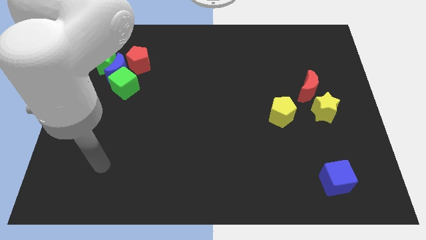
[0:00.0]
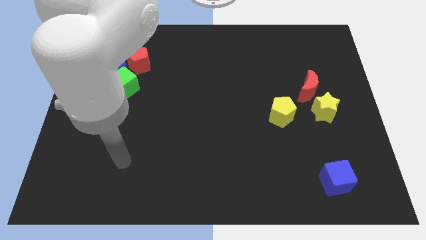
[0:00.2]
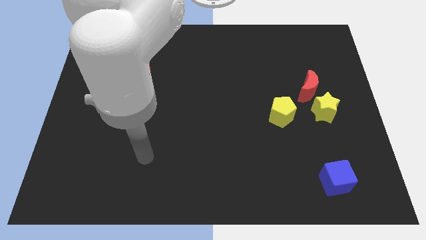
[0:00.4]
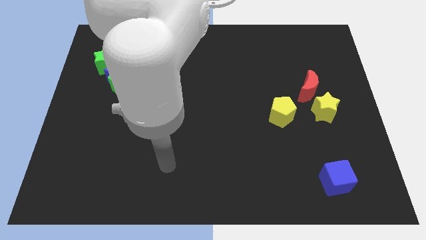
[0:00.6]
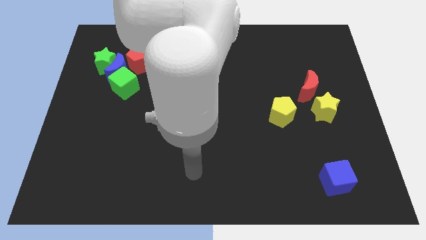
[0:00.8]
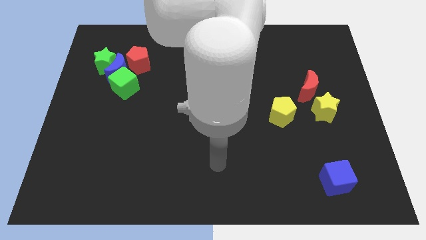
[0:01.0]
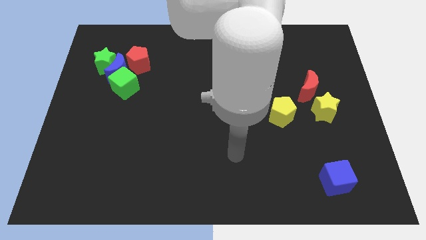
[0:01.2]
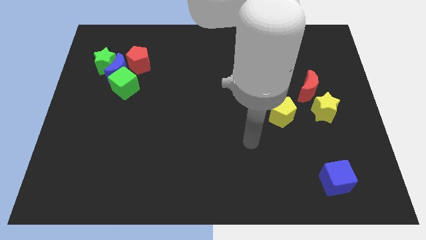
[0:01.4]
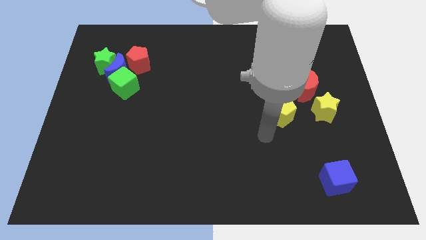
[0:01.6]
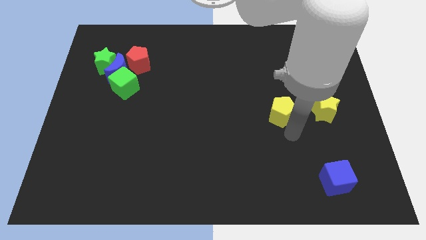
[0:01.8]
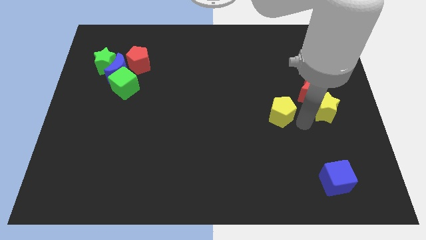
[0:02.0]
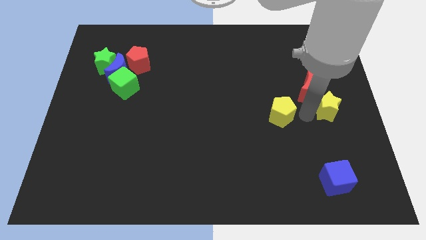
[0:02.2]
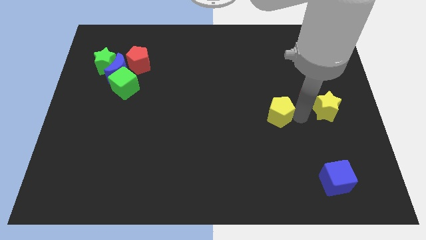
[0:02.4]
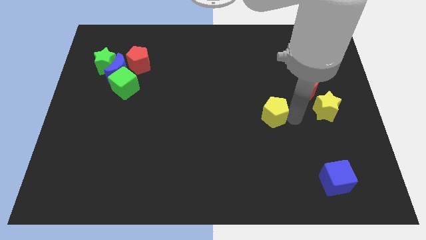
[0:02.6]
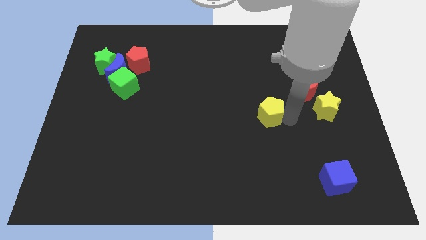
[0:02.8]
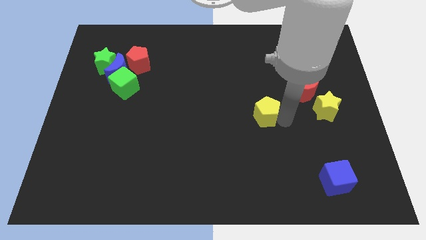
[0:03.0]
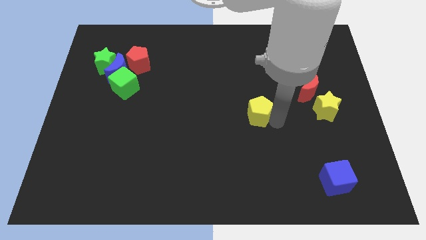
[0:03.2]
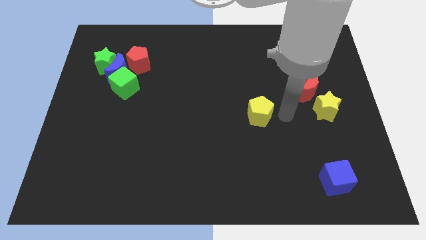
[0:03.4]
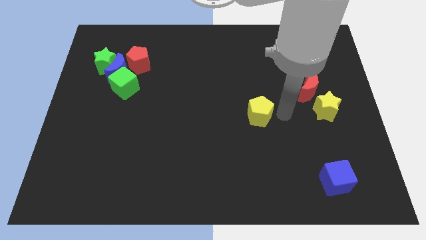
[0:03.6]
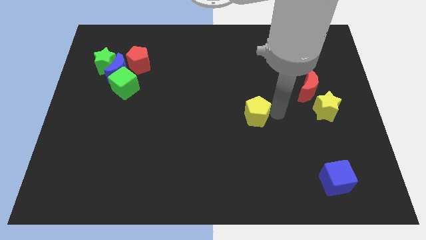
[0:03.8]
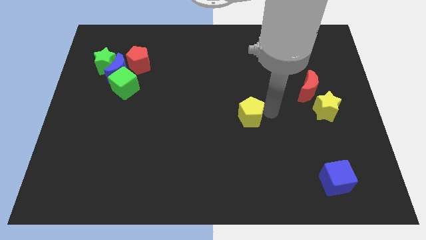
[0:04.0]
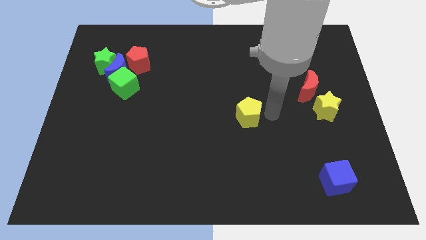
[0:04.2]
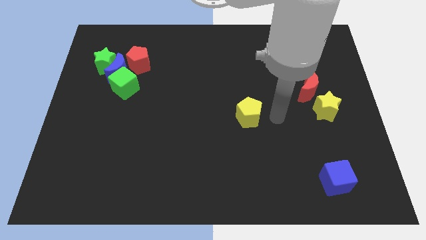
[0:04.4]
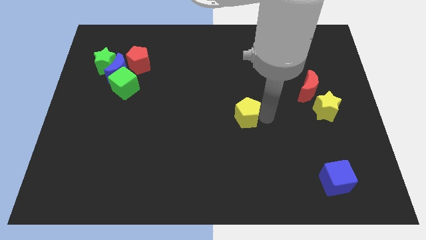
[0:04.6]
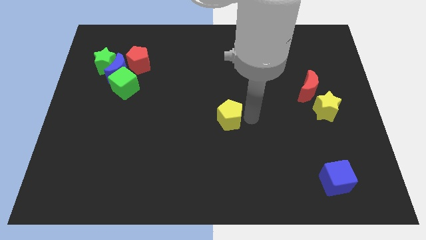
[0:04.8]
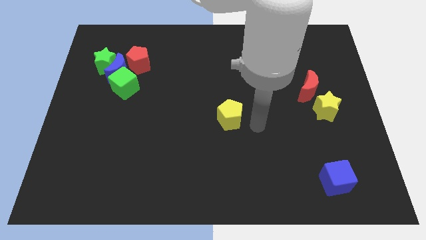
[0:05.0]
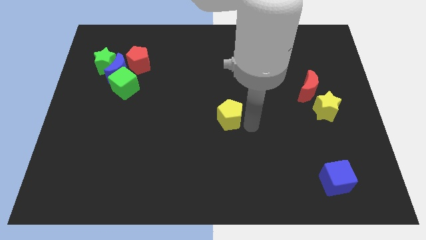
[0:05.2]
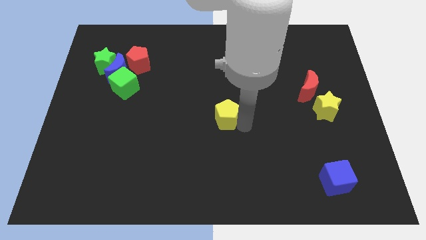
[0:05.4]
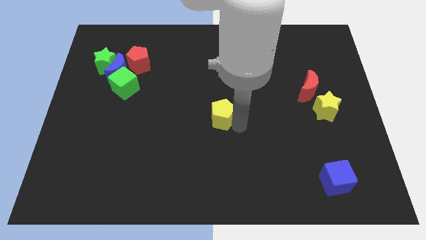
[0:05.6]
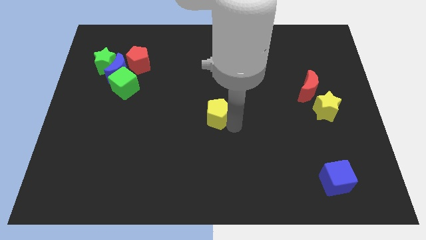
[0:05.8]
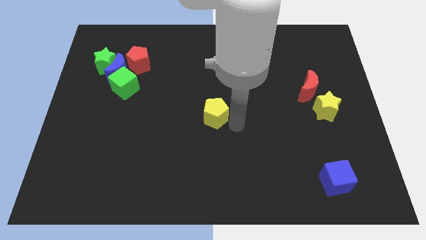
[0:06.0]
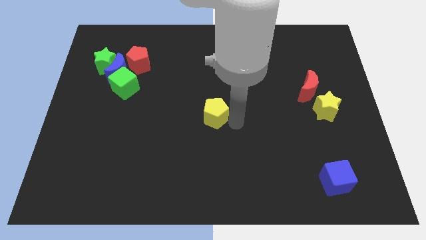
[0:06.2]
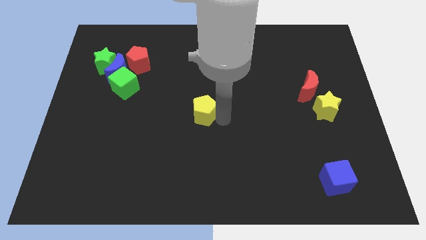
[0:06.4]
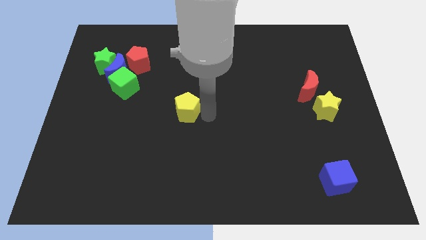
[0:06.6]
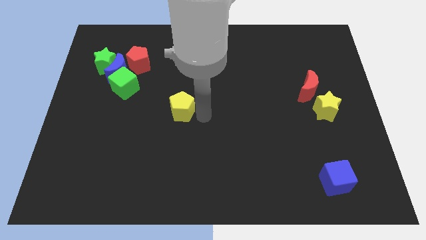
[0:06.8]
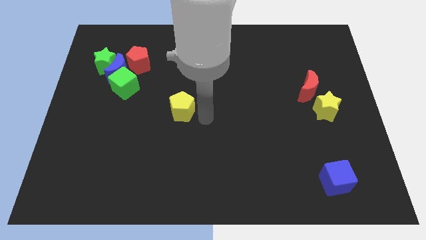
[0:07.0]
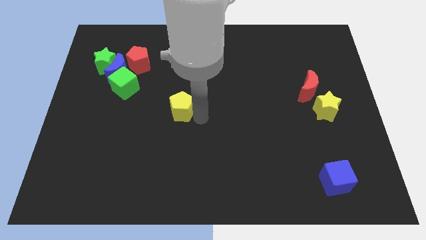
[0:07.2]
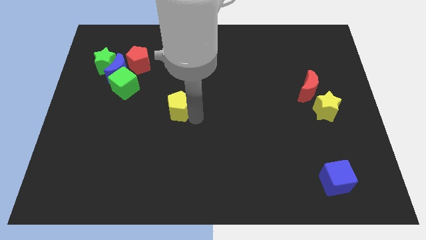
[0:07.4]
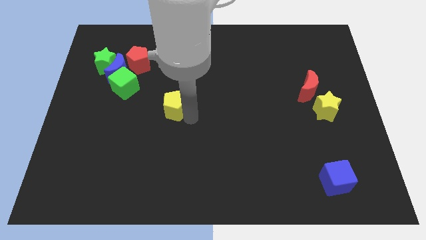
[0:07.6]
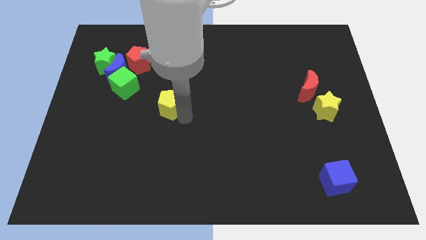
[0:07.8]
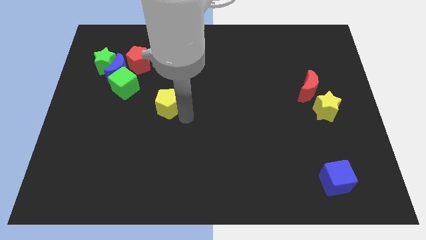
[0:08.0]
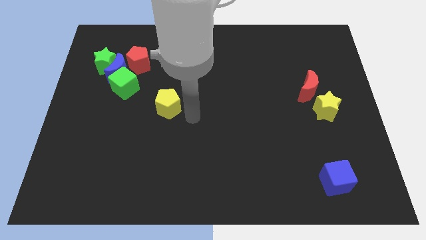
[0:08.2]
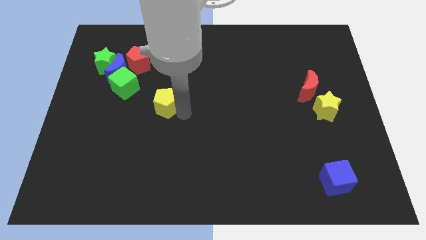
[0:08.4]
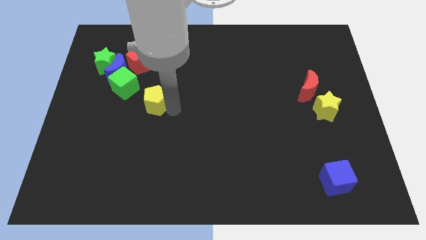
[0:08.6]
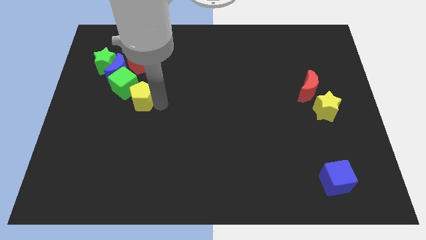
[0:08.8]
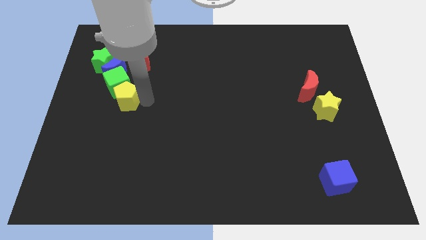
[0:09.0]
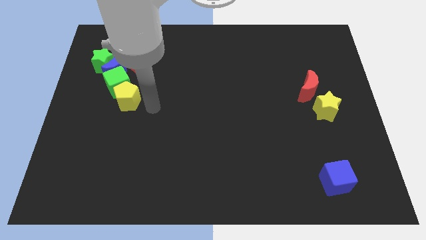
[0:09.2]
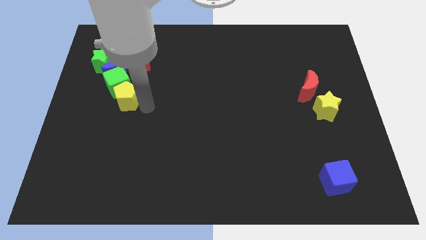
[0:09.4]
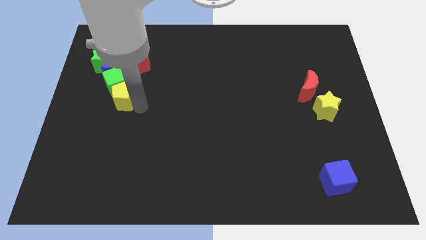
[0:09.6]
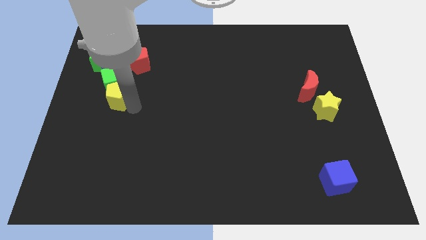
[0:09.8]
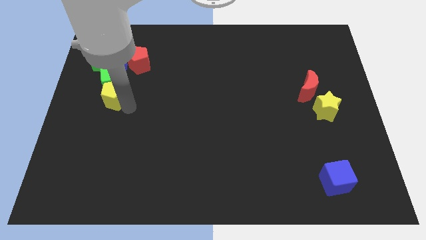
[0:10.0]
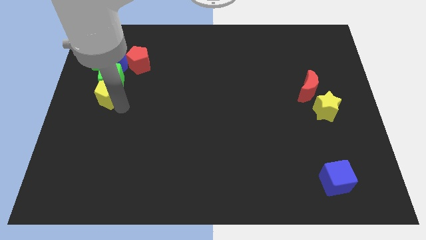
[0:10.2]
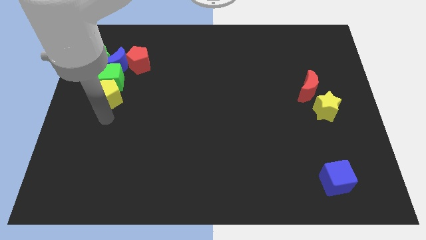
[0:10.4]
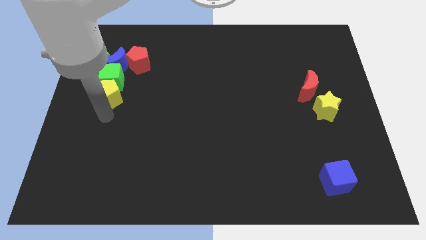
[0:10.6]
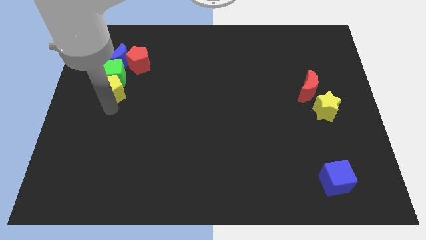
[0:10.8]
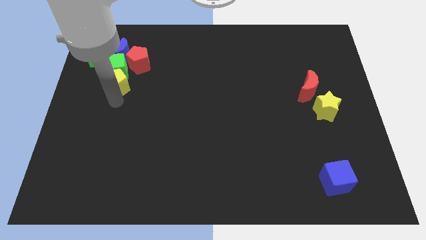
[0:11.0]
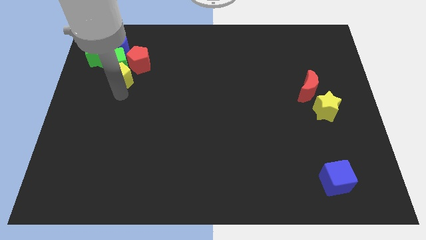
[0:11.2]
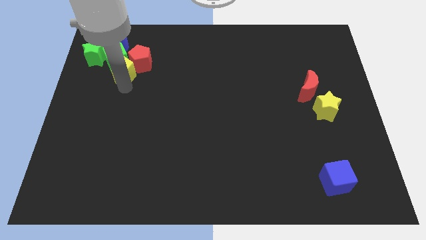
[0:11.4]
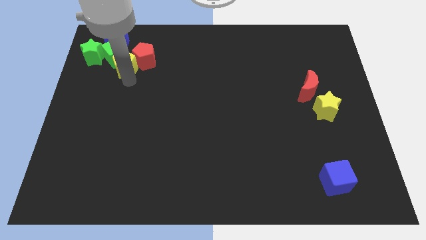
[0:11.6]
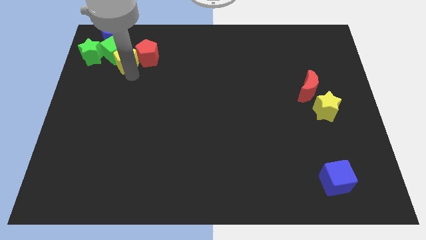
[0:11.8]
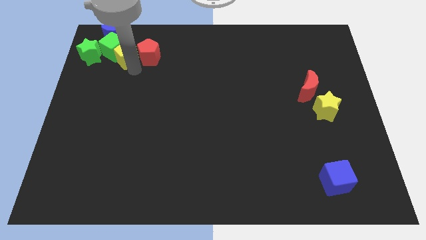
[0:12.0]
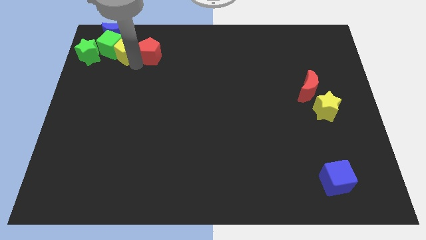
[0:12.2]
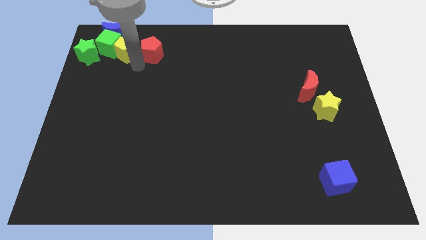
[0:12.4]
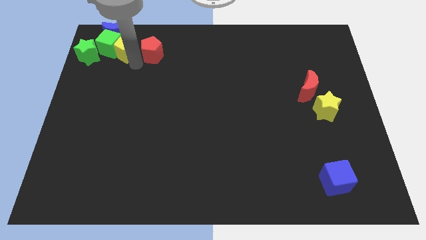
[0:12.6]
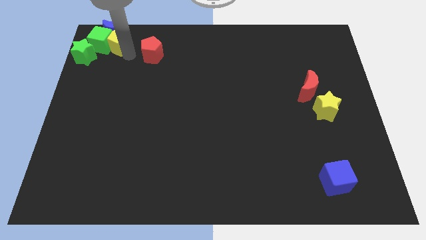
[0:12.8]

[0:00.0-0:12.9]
slide the yellow pentagon close to the blue moon

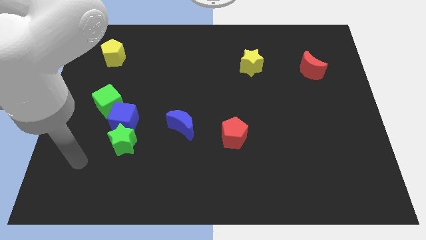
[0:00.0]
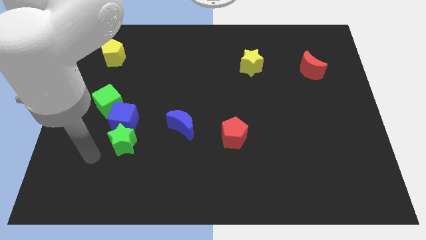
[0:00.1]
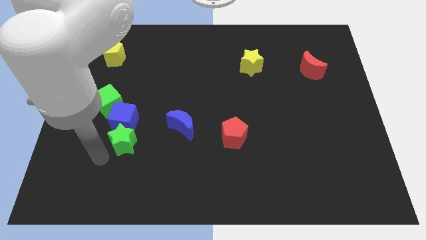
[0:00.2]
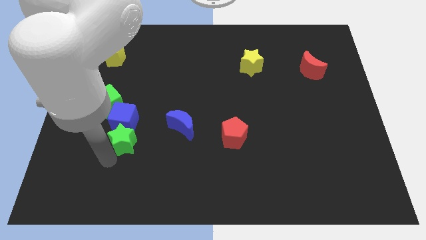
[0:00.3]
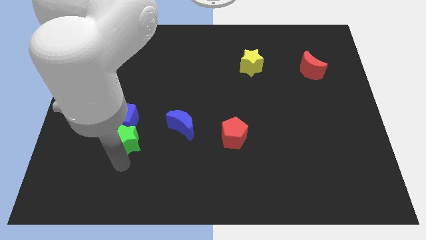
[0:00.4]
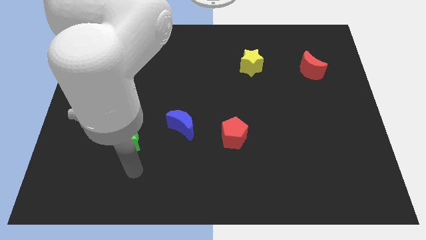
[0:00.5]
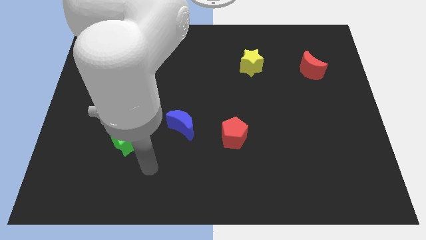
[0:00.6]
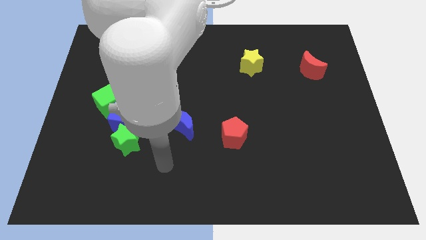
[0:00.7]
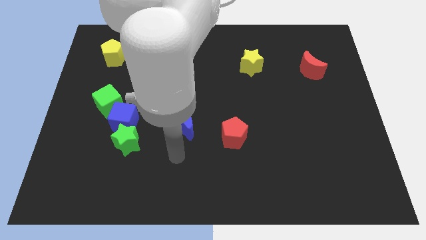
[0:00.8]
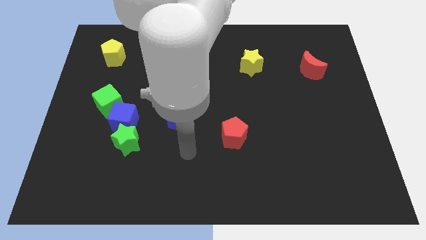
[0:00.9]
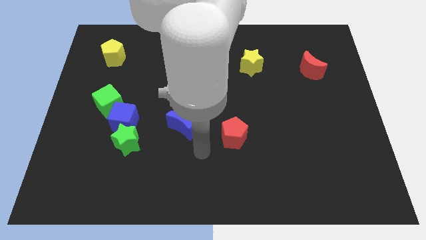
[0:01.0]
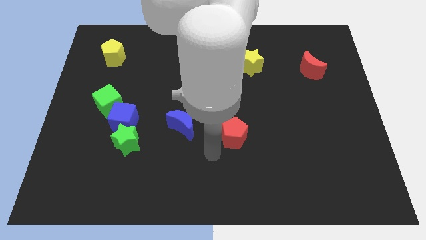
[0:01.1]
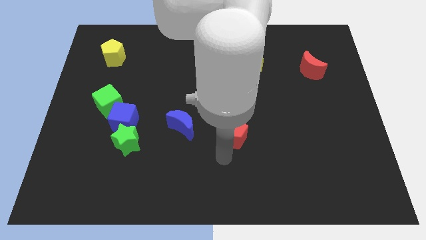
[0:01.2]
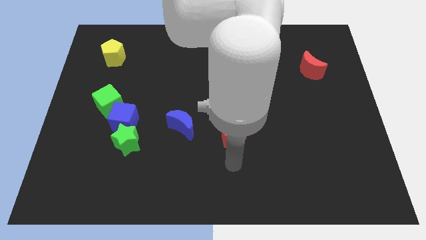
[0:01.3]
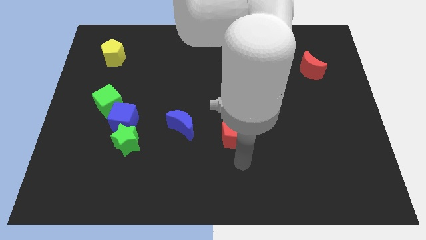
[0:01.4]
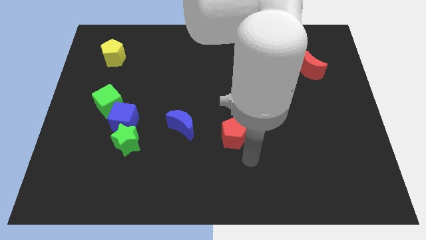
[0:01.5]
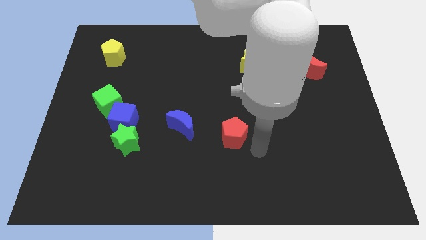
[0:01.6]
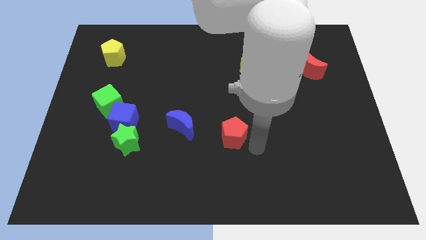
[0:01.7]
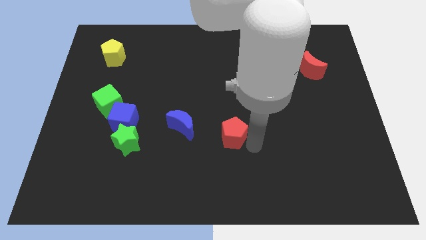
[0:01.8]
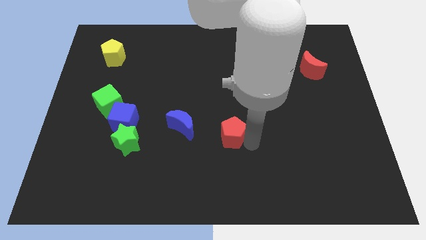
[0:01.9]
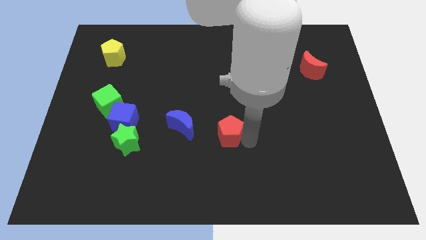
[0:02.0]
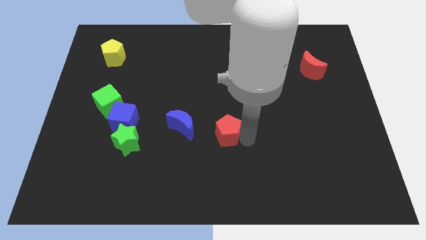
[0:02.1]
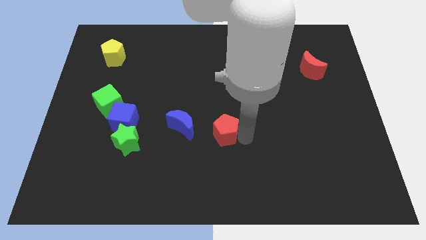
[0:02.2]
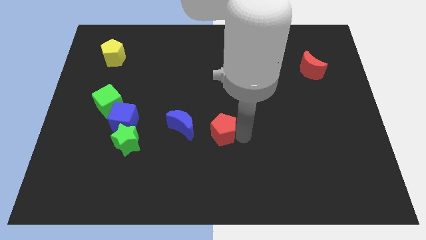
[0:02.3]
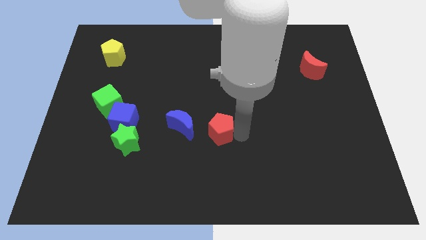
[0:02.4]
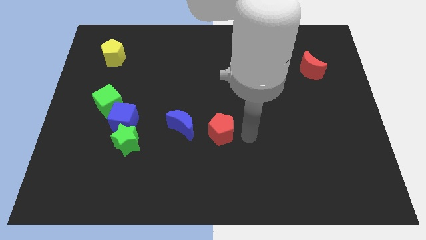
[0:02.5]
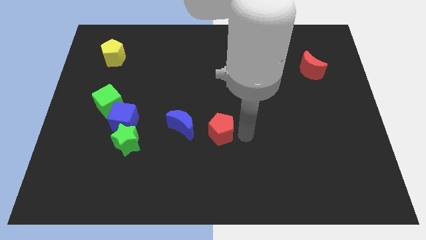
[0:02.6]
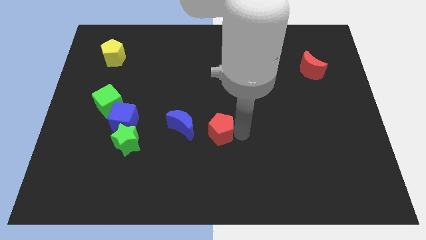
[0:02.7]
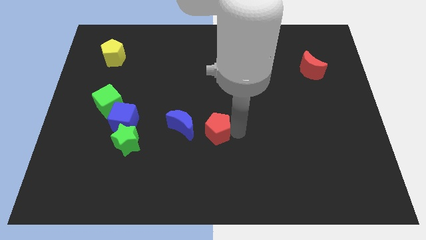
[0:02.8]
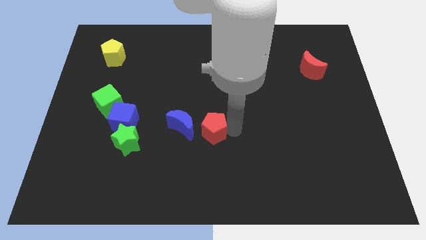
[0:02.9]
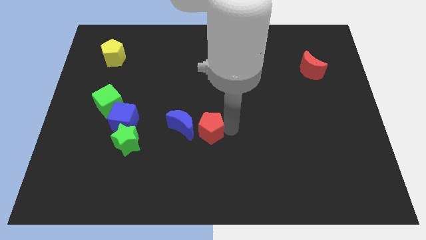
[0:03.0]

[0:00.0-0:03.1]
put the red pentagon to the blue moon
